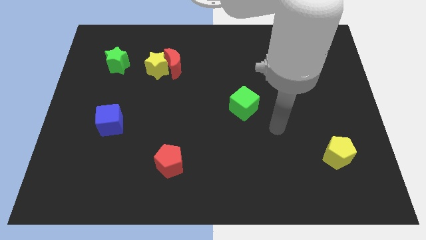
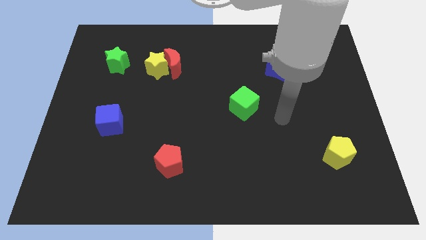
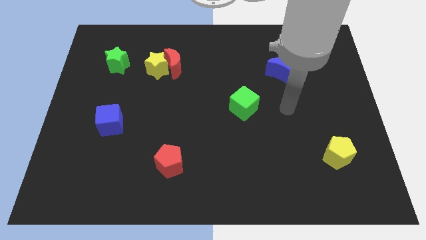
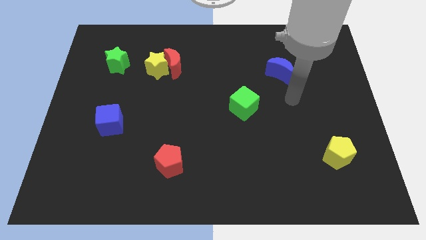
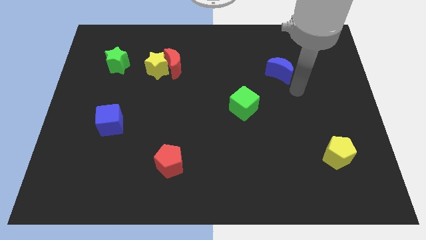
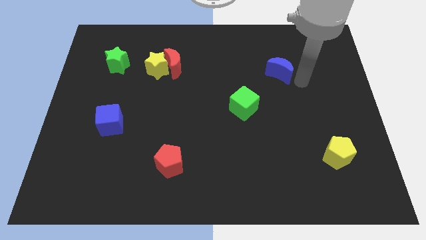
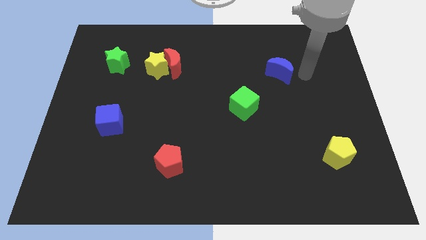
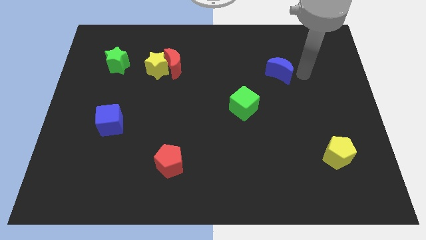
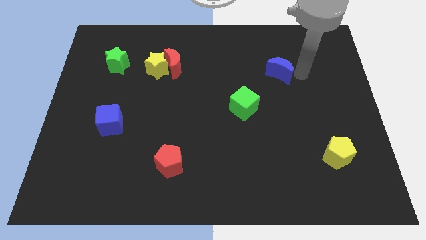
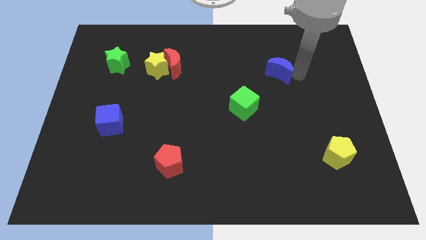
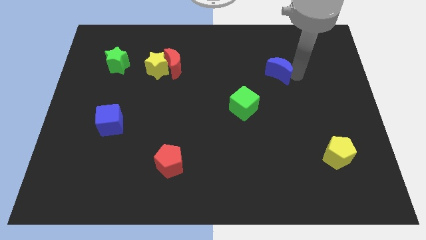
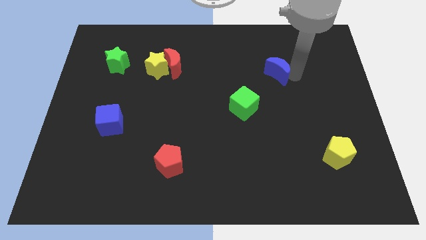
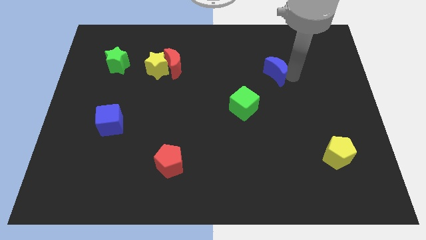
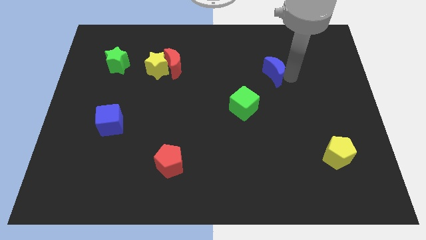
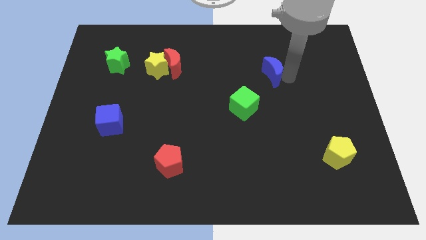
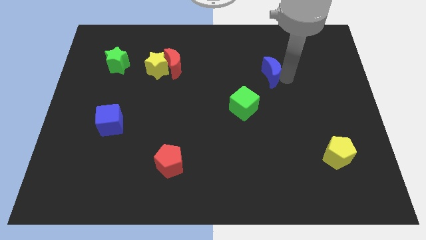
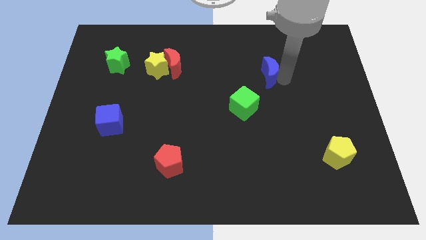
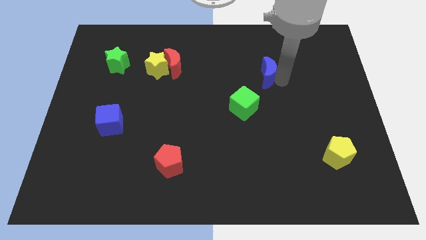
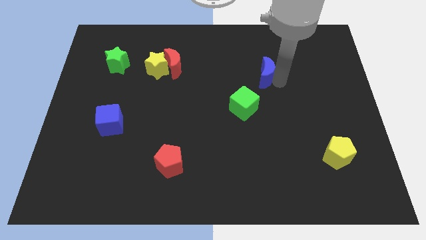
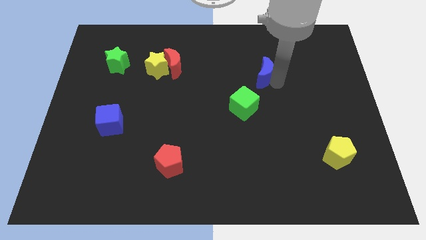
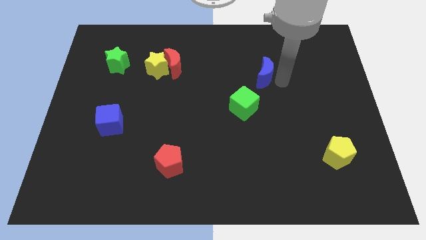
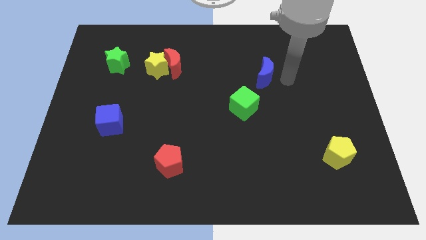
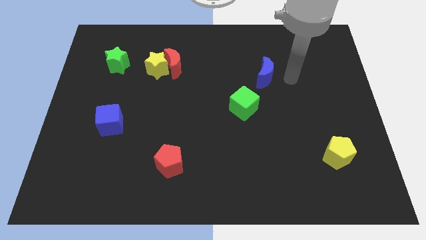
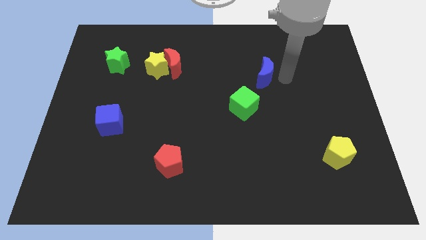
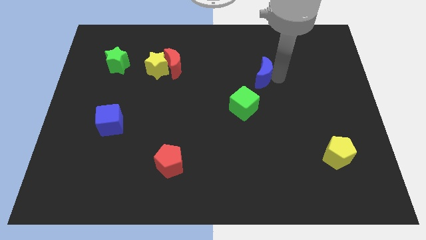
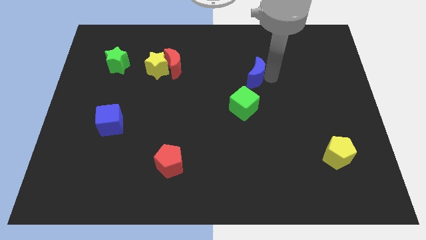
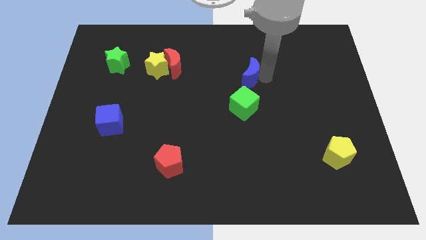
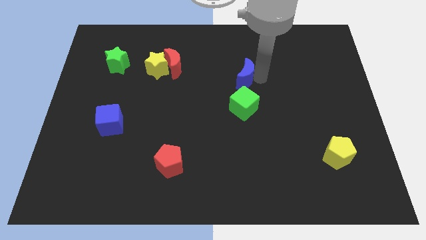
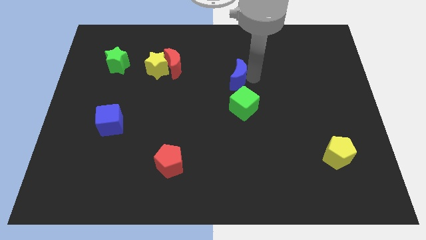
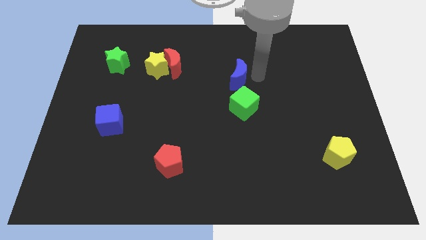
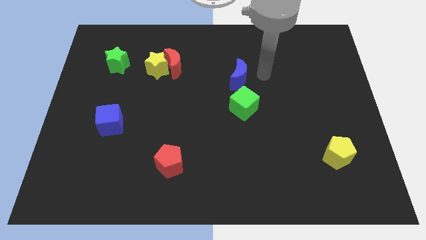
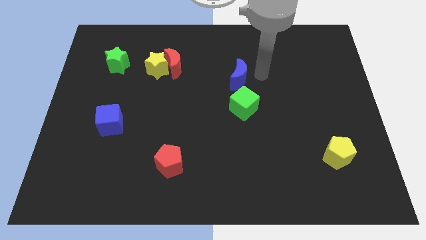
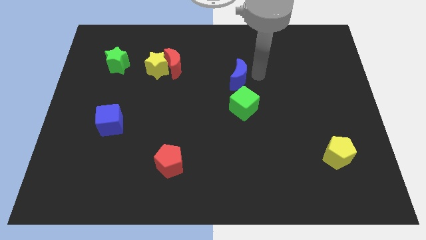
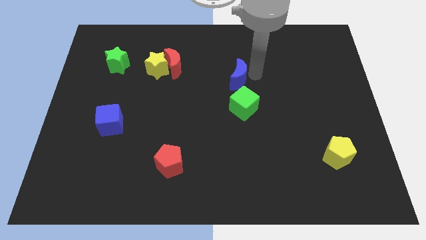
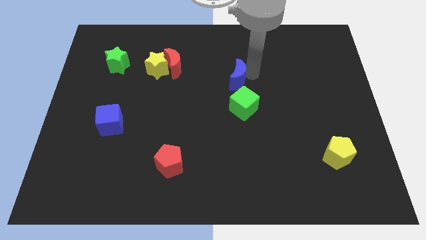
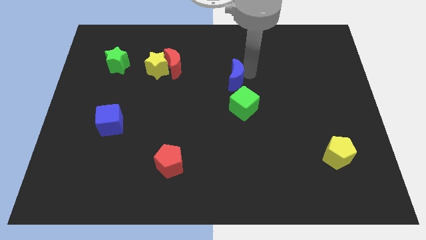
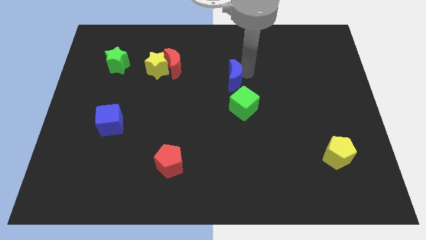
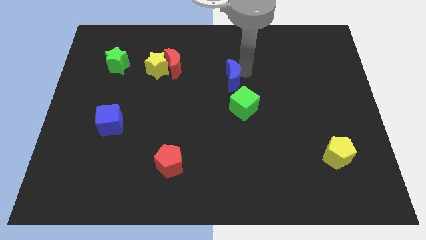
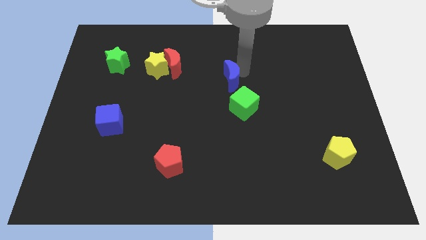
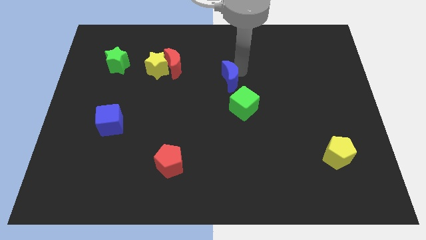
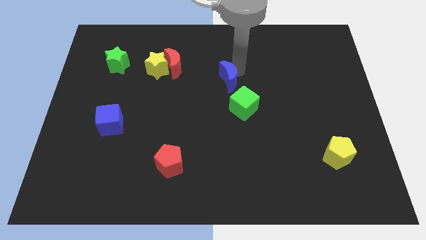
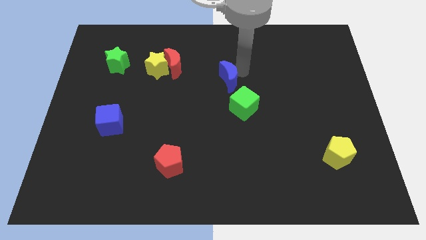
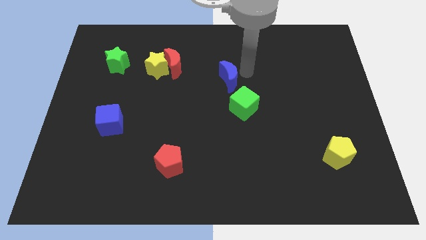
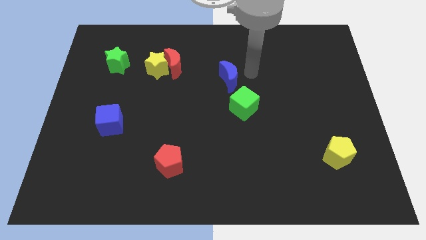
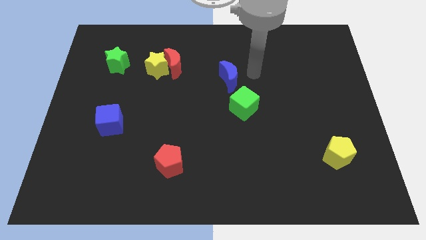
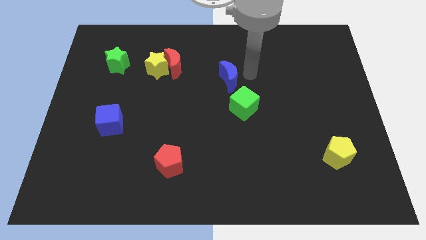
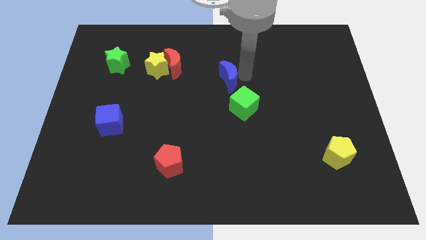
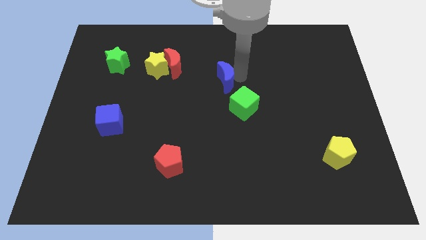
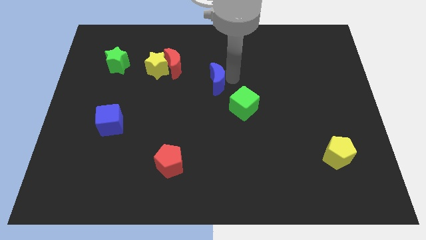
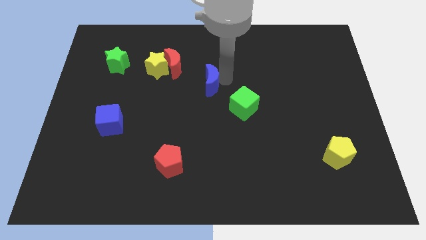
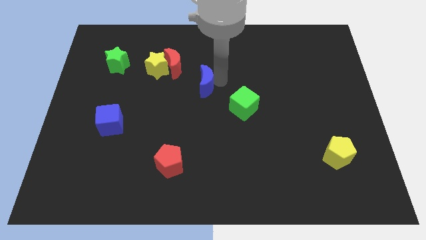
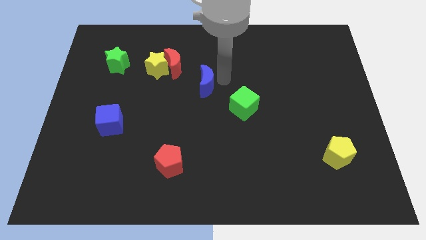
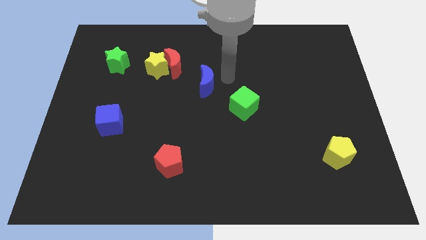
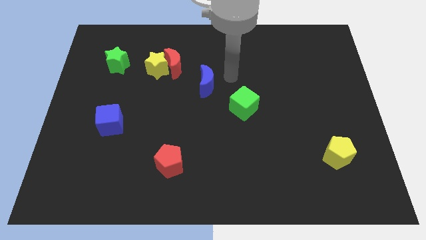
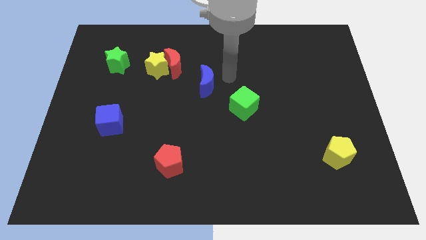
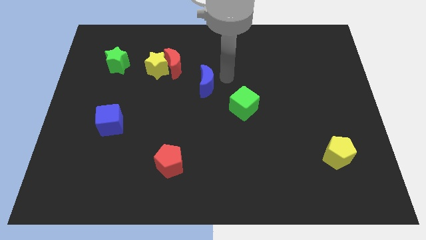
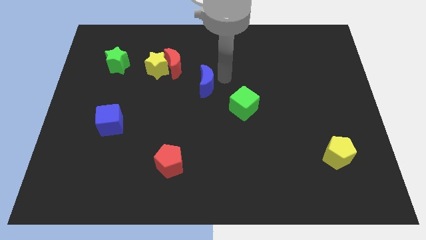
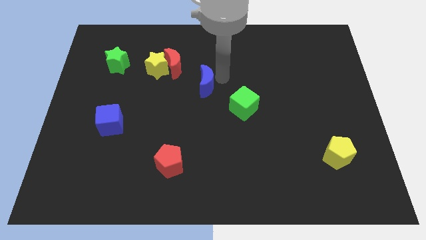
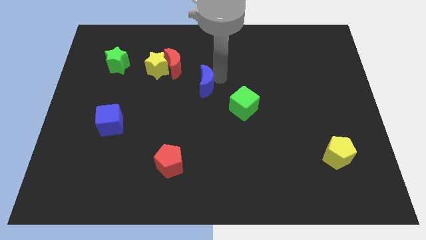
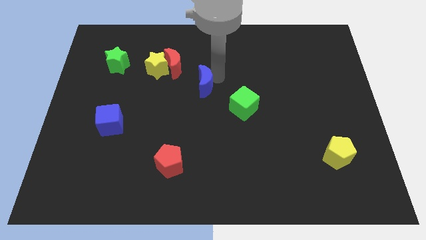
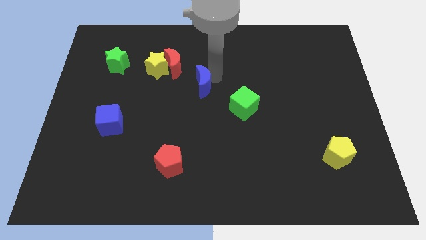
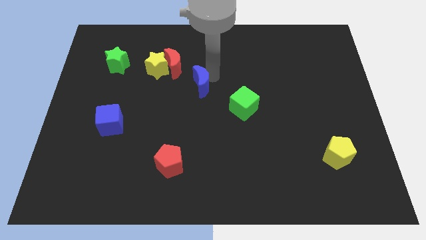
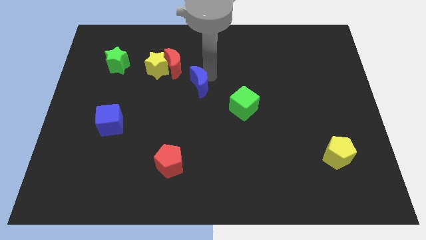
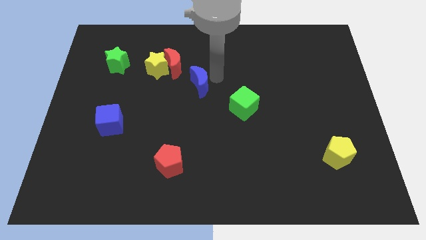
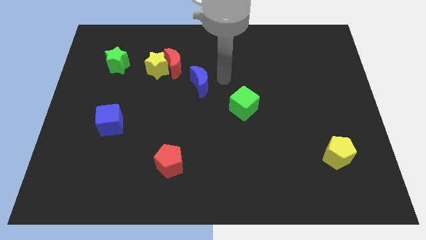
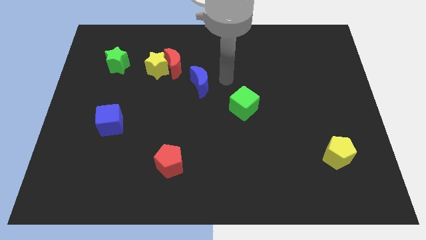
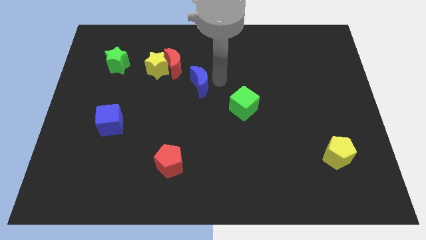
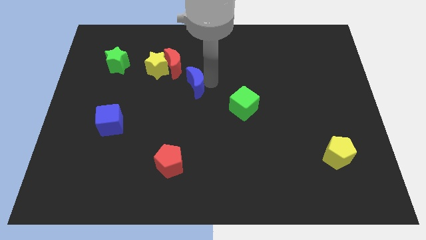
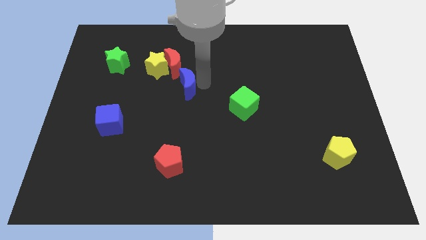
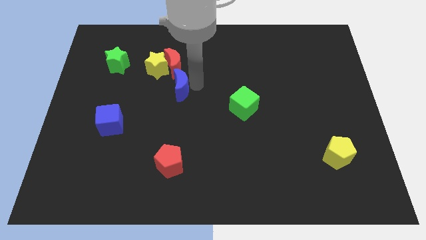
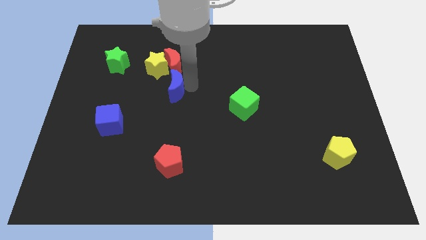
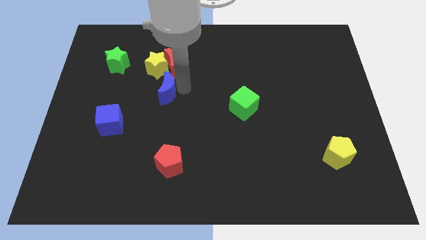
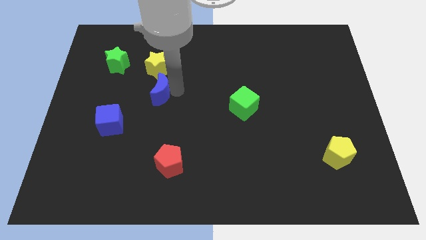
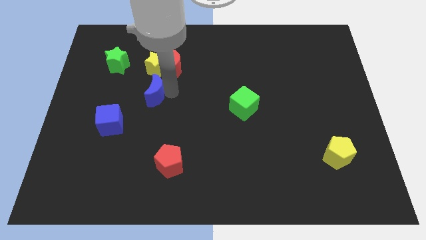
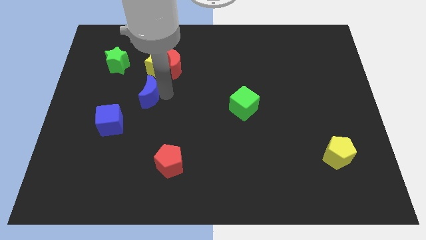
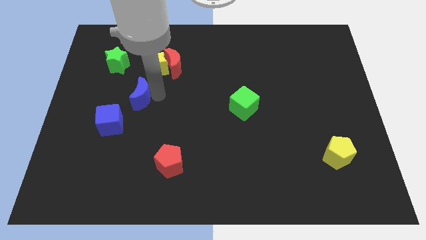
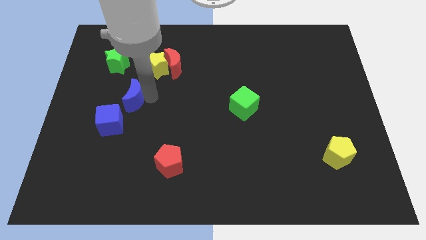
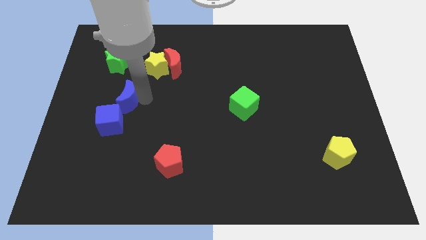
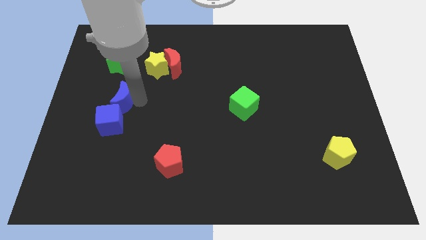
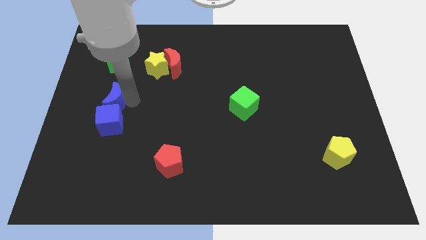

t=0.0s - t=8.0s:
push the blue moon diagonally up and to the left of the blue cube

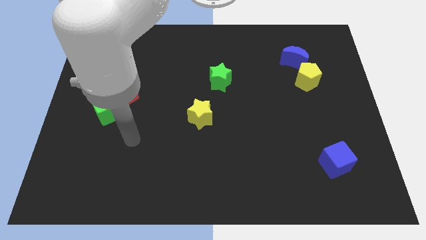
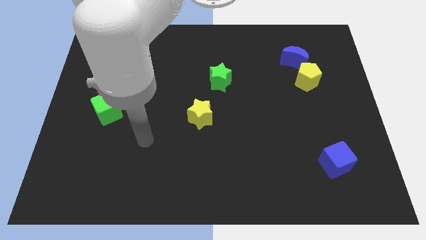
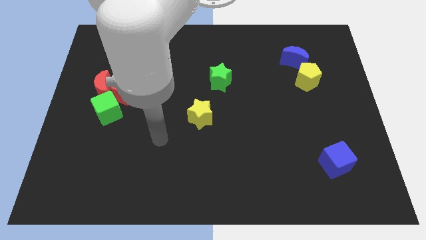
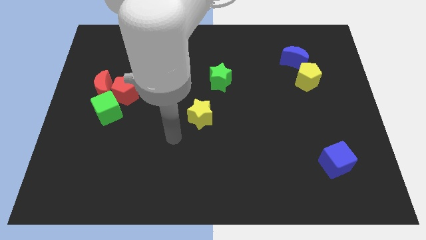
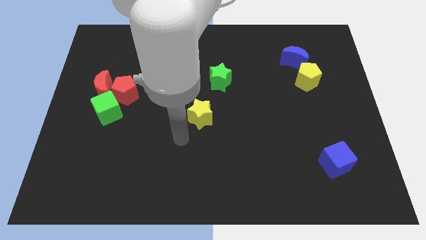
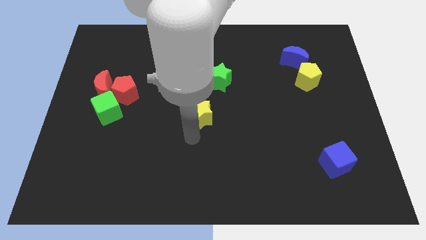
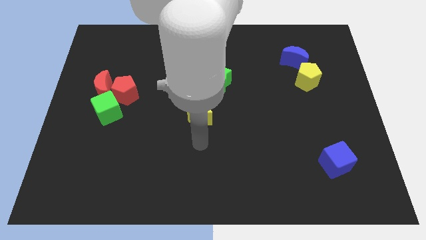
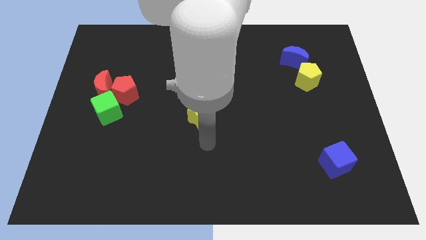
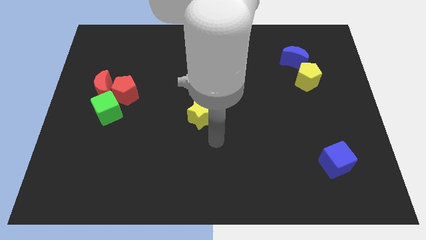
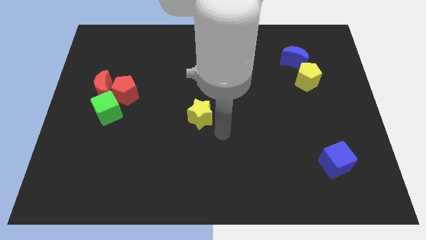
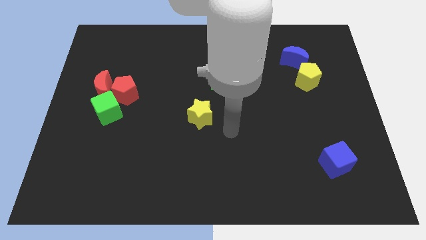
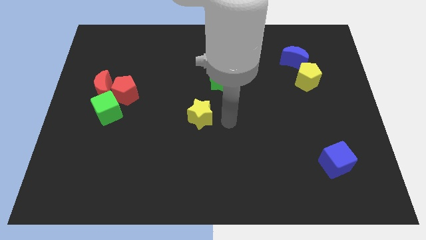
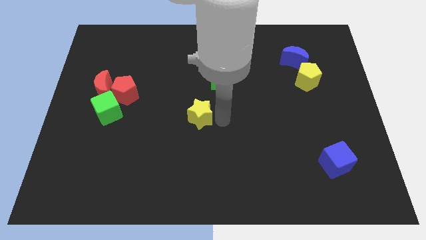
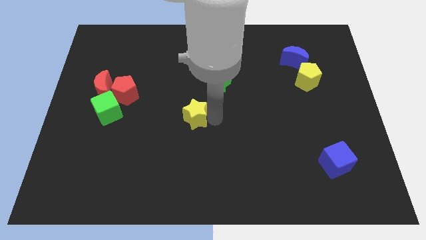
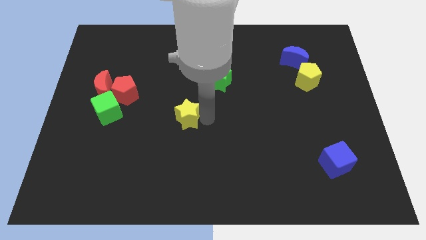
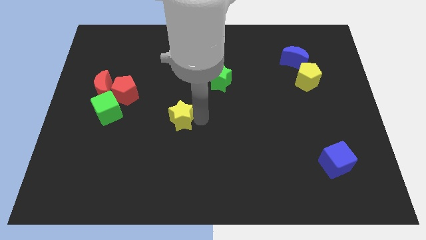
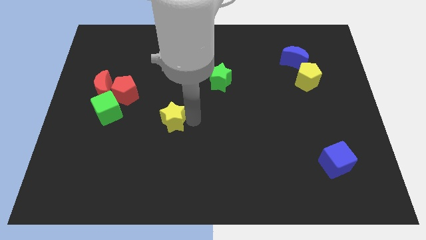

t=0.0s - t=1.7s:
move the yellow star to the right side of the green cube
